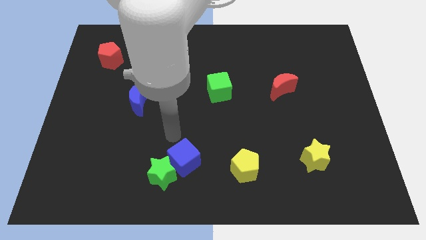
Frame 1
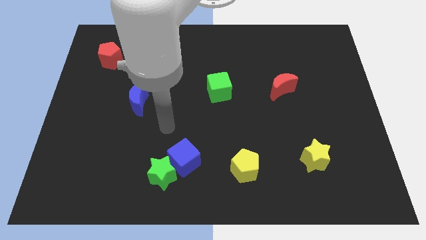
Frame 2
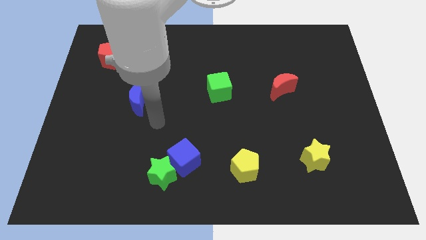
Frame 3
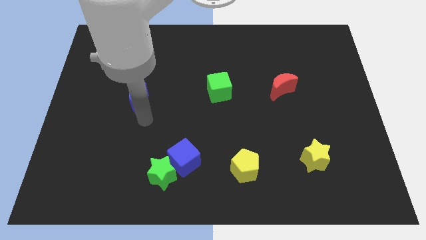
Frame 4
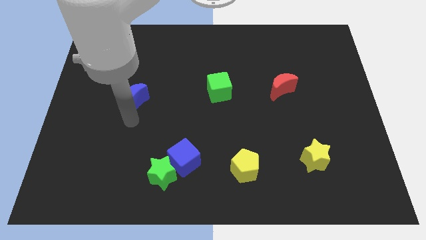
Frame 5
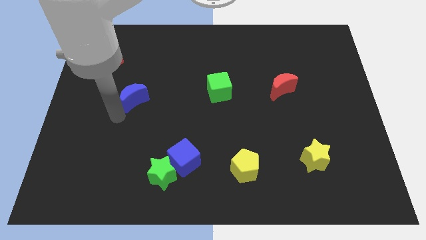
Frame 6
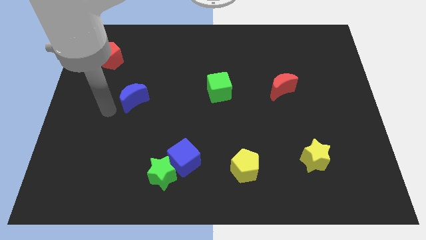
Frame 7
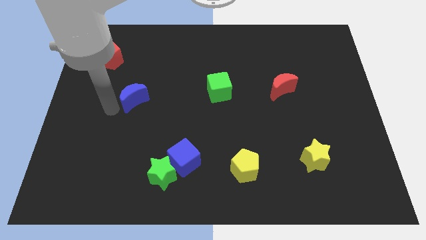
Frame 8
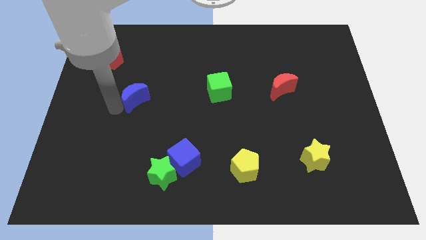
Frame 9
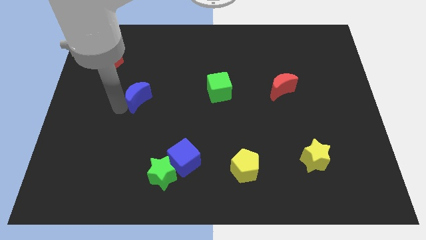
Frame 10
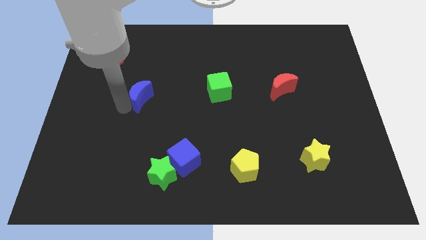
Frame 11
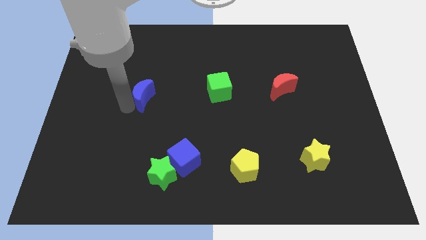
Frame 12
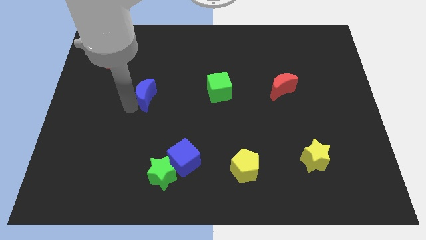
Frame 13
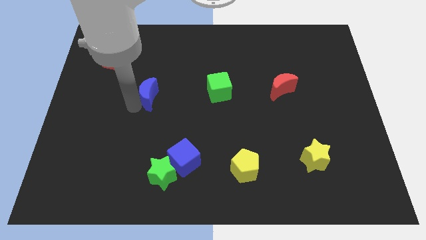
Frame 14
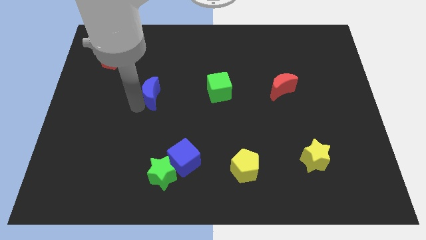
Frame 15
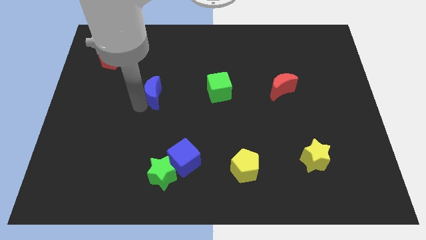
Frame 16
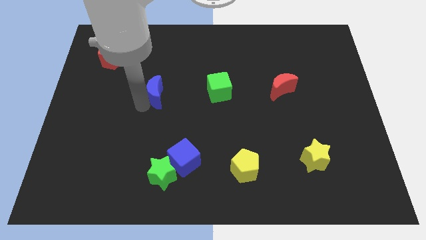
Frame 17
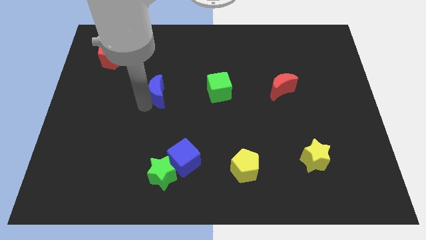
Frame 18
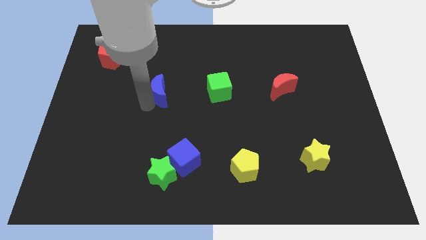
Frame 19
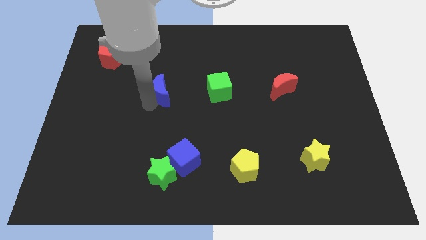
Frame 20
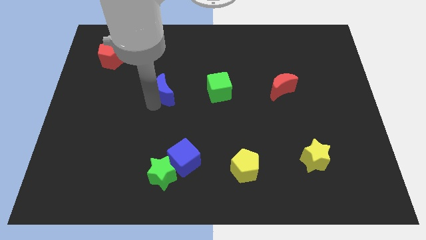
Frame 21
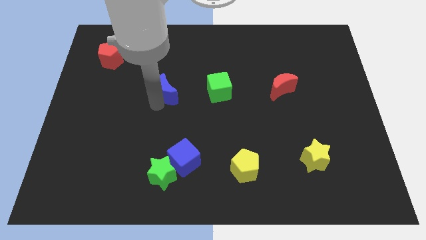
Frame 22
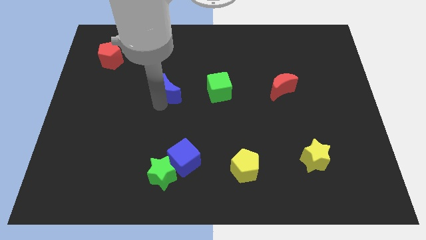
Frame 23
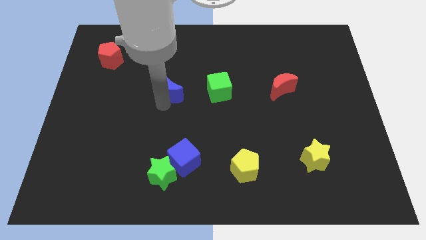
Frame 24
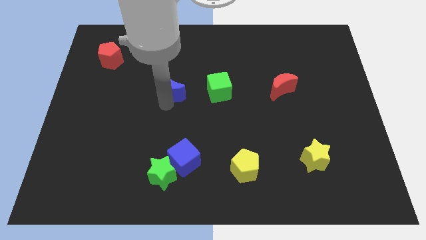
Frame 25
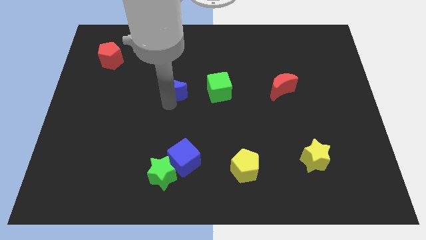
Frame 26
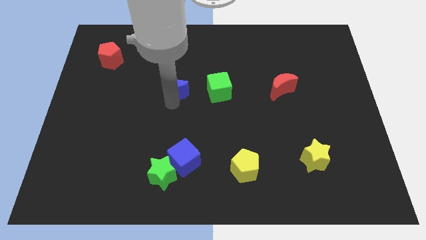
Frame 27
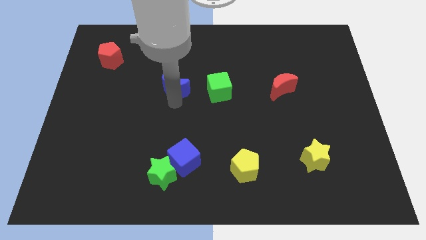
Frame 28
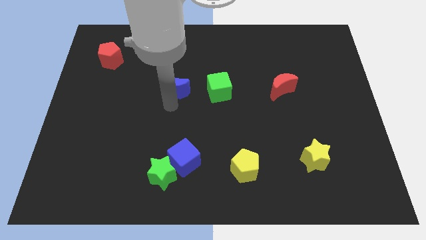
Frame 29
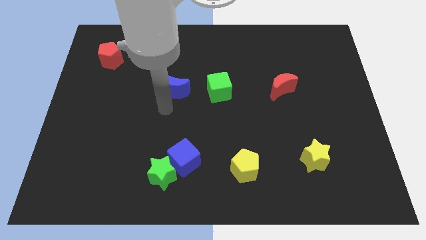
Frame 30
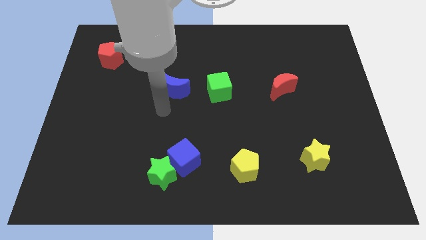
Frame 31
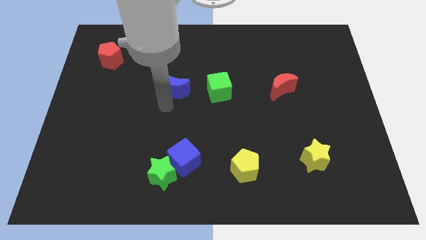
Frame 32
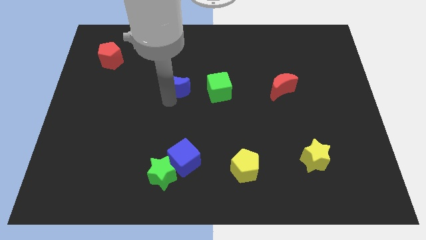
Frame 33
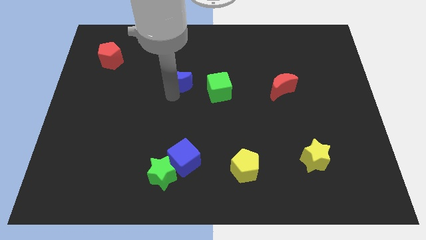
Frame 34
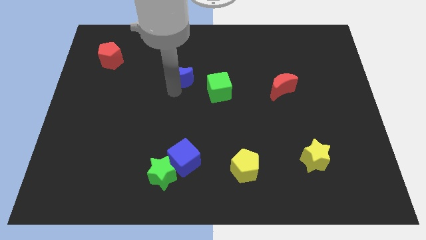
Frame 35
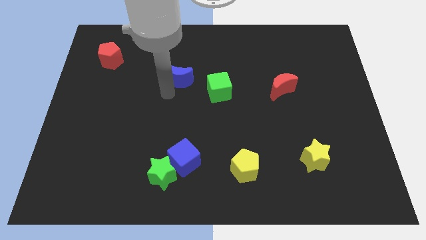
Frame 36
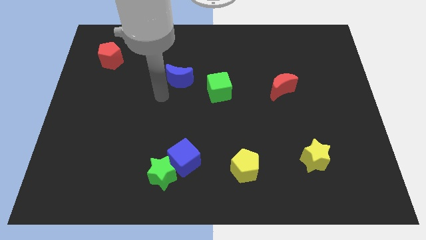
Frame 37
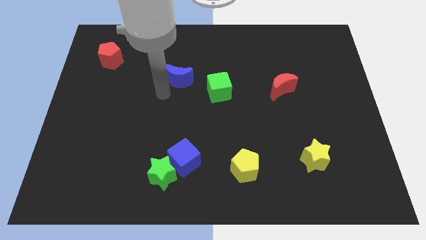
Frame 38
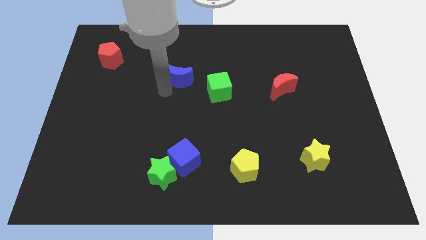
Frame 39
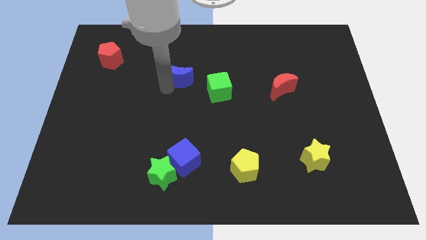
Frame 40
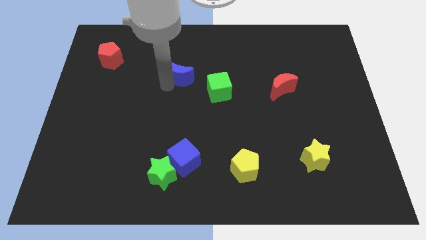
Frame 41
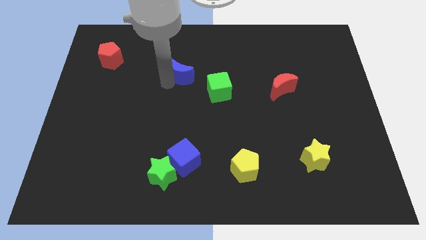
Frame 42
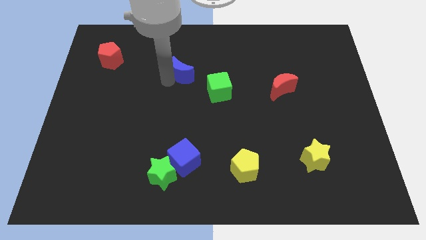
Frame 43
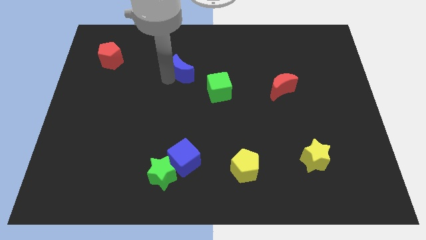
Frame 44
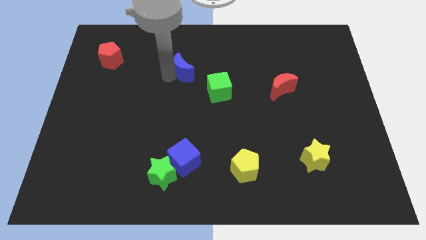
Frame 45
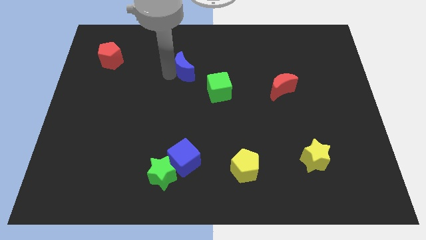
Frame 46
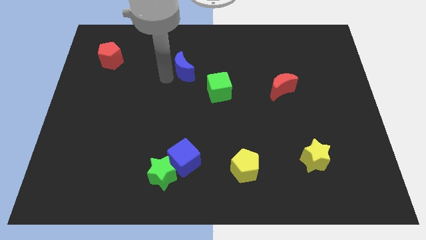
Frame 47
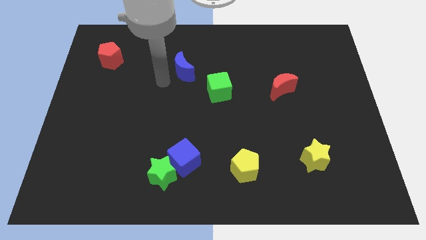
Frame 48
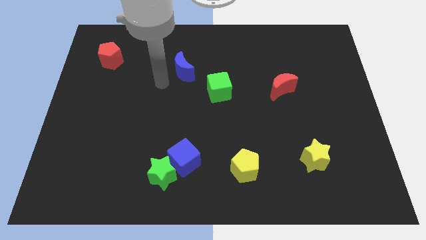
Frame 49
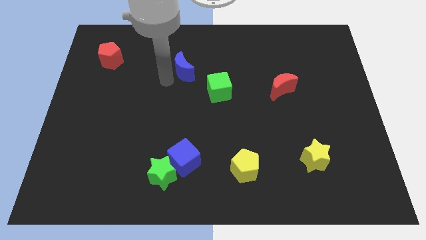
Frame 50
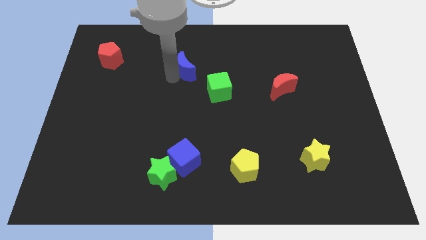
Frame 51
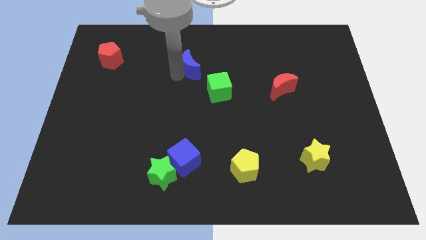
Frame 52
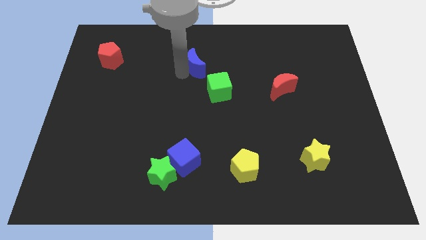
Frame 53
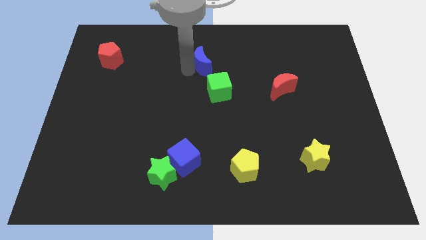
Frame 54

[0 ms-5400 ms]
push the blue moon above the green cube

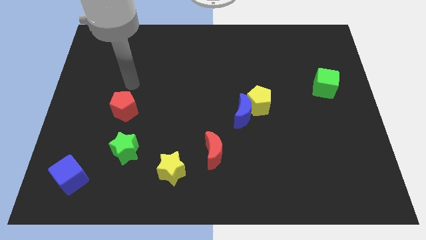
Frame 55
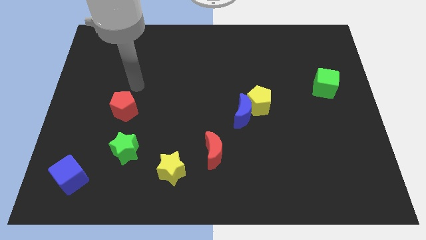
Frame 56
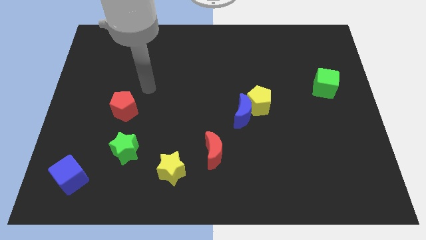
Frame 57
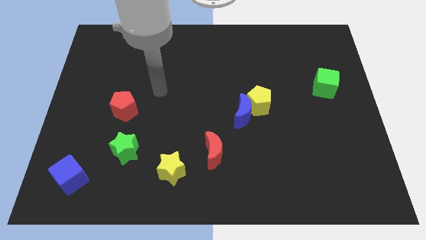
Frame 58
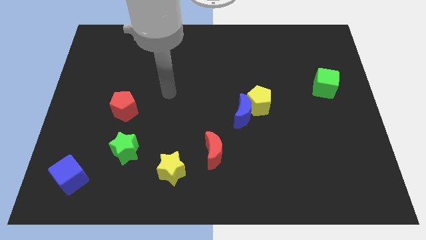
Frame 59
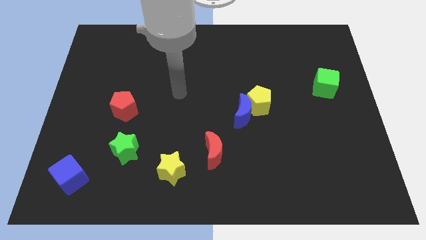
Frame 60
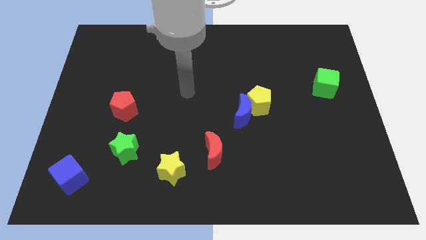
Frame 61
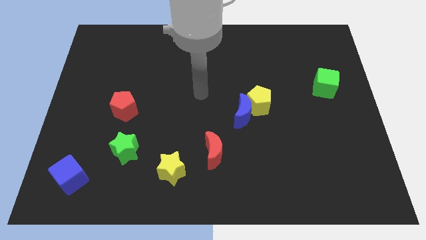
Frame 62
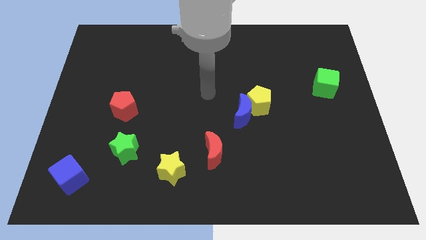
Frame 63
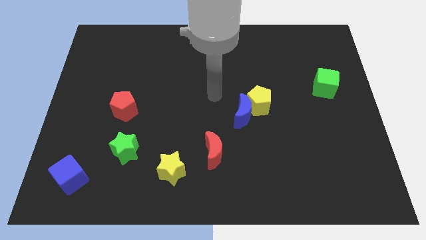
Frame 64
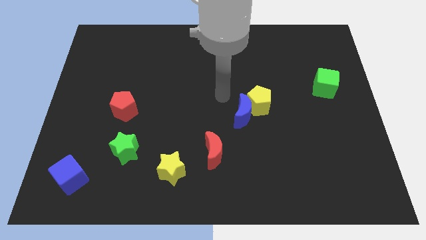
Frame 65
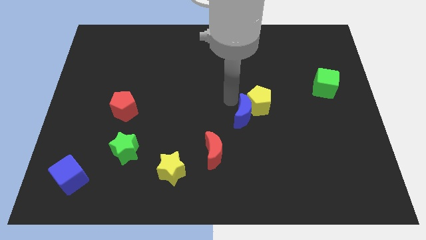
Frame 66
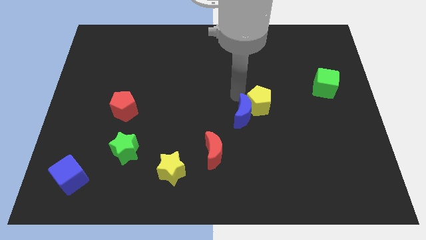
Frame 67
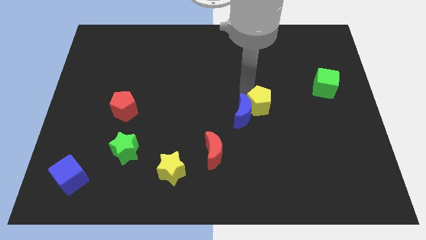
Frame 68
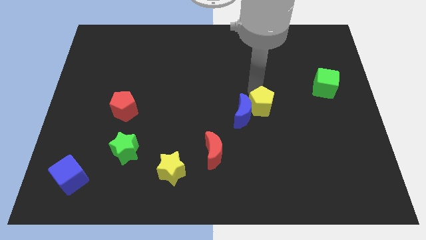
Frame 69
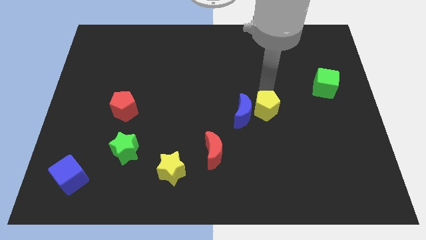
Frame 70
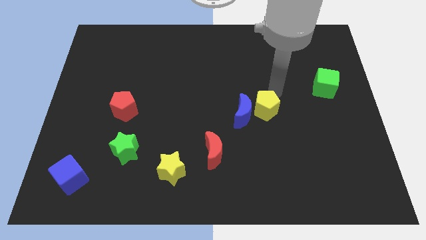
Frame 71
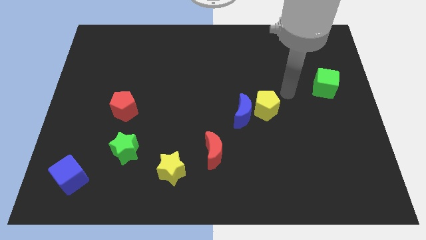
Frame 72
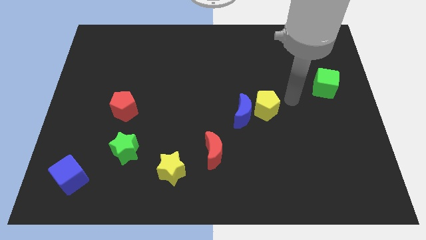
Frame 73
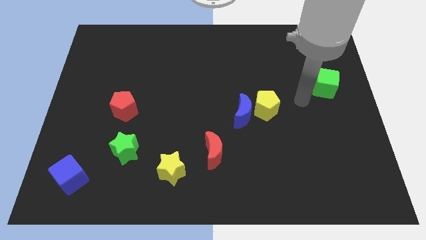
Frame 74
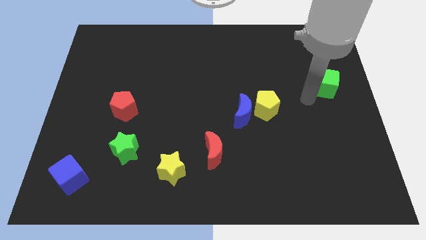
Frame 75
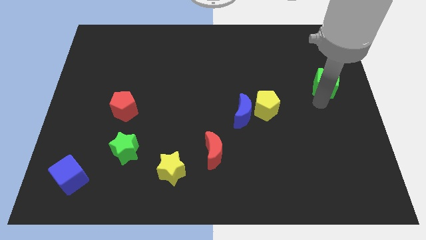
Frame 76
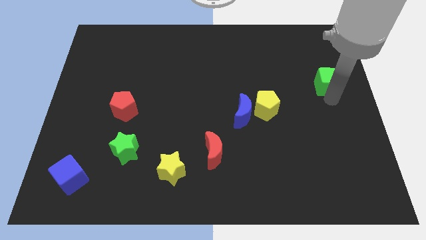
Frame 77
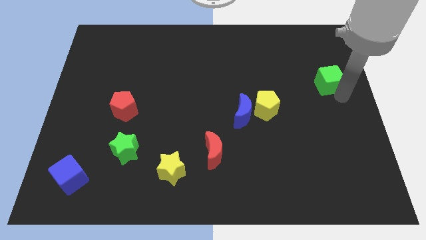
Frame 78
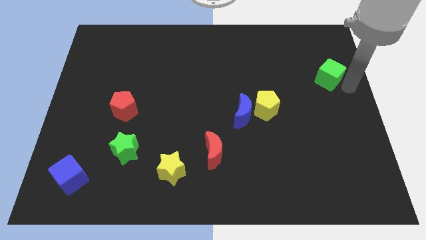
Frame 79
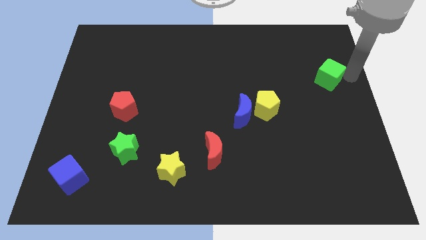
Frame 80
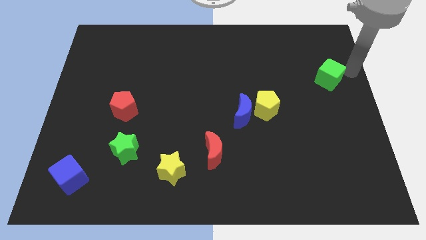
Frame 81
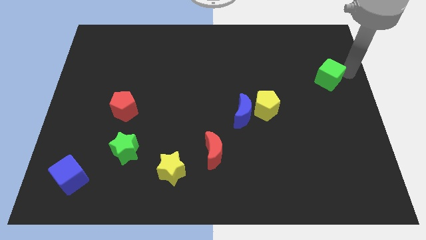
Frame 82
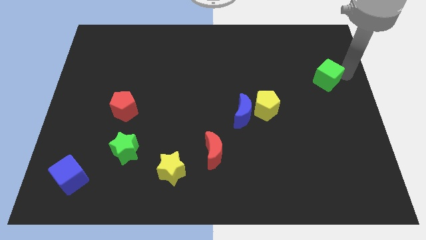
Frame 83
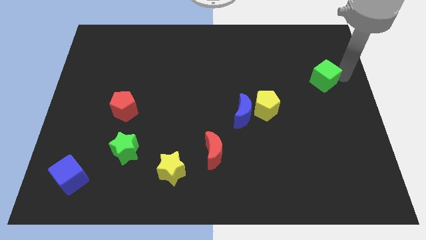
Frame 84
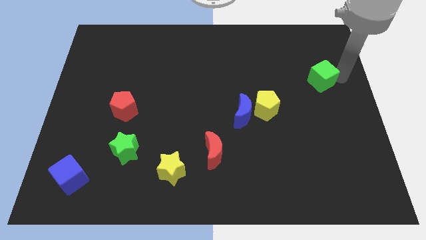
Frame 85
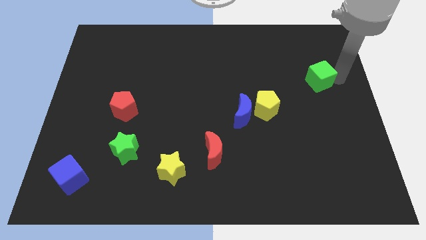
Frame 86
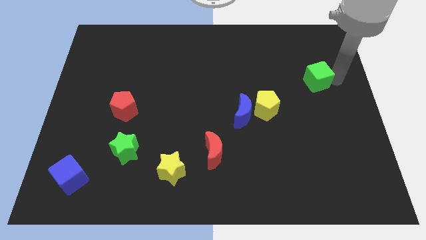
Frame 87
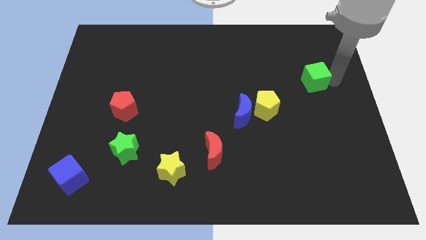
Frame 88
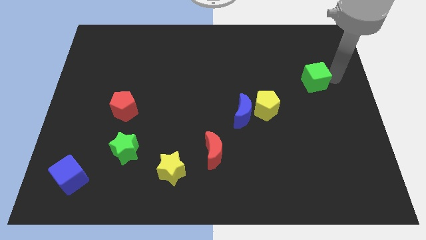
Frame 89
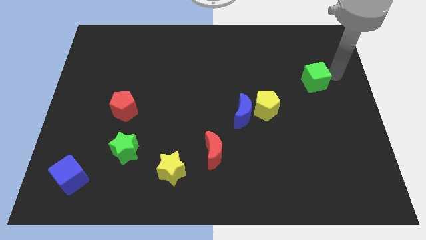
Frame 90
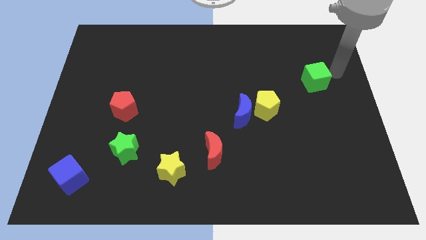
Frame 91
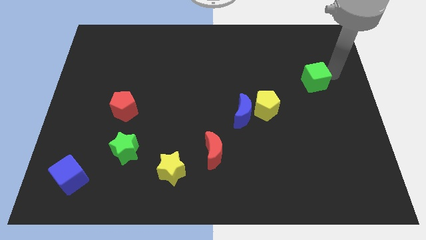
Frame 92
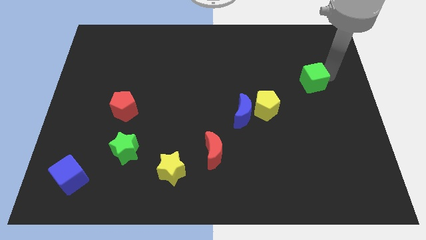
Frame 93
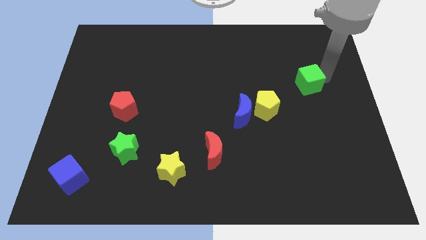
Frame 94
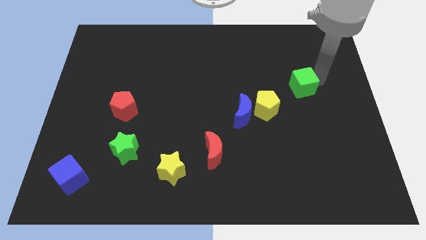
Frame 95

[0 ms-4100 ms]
move the green cube to the top right of the yellow pentagon
